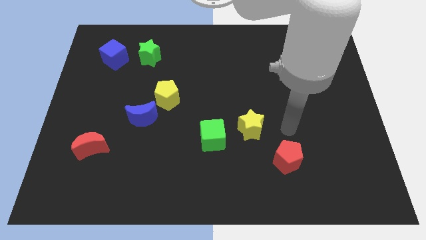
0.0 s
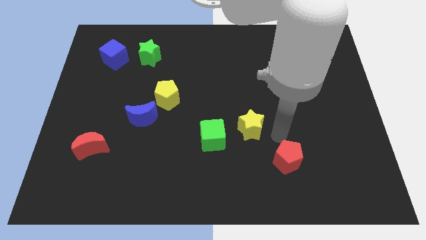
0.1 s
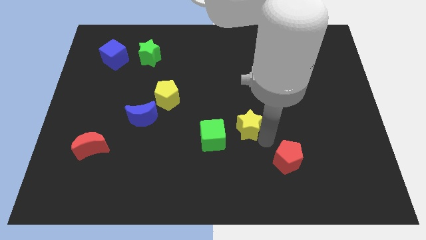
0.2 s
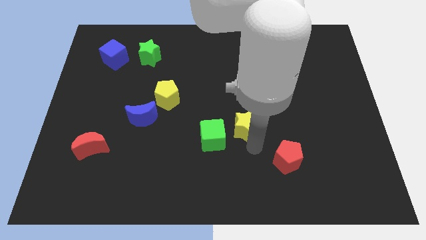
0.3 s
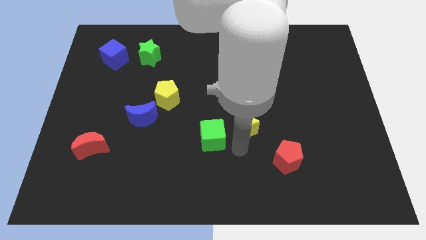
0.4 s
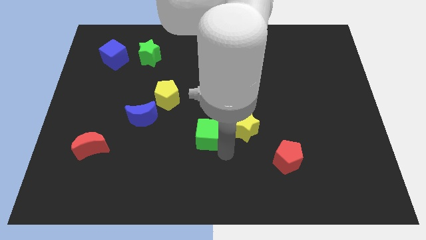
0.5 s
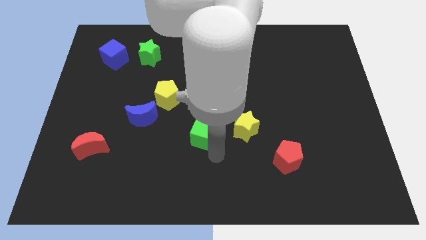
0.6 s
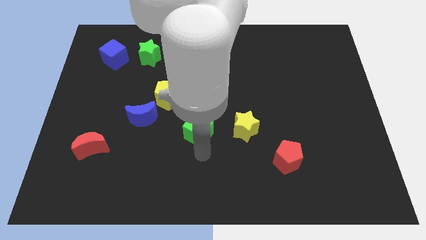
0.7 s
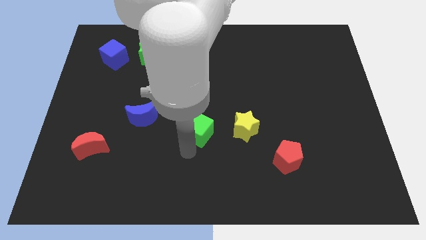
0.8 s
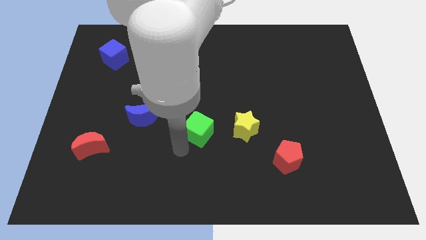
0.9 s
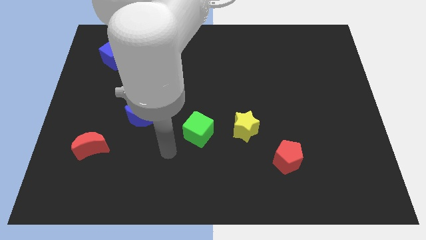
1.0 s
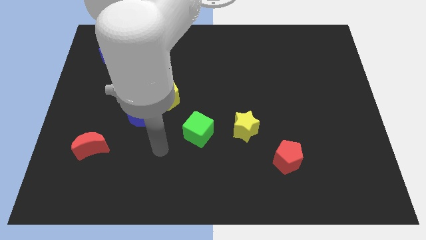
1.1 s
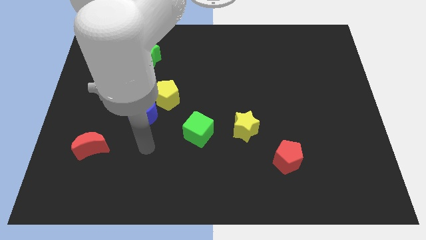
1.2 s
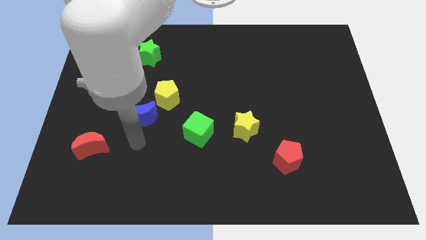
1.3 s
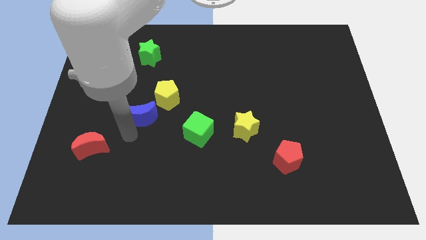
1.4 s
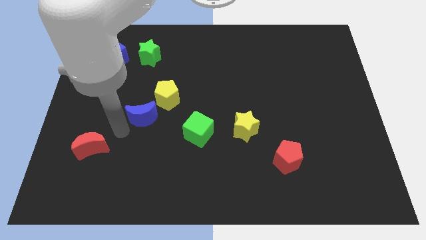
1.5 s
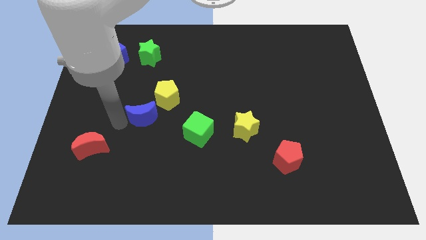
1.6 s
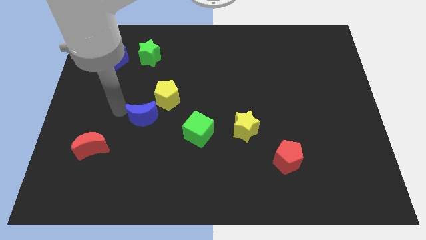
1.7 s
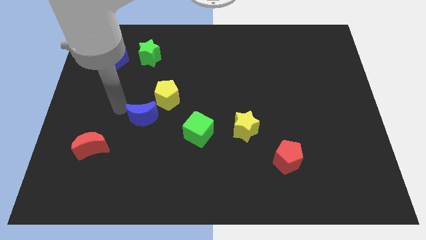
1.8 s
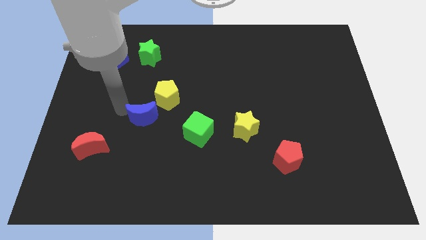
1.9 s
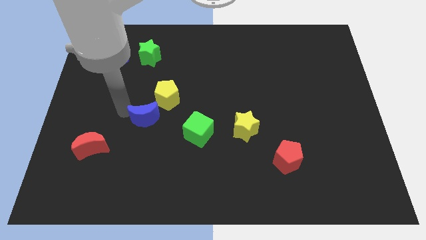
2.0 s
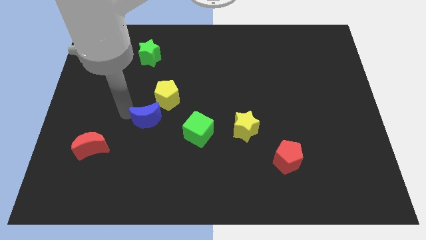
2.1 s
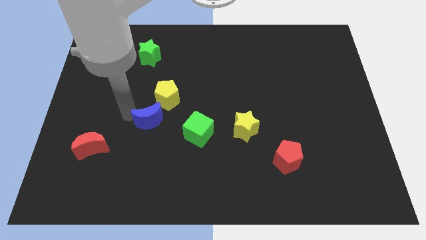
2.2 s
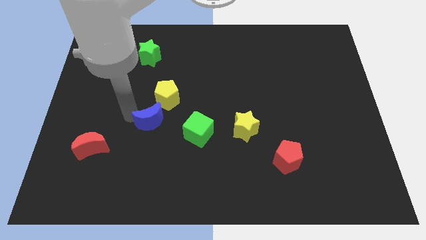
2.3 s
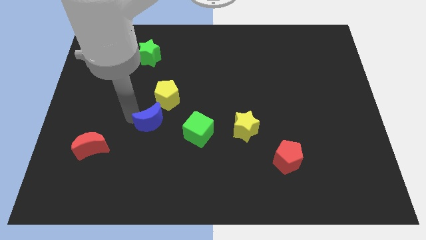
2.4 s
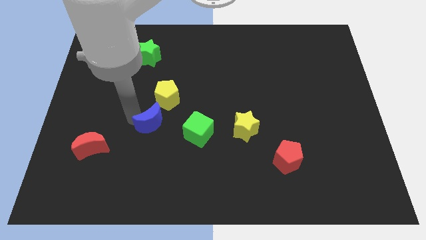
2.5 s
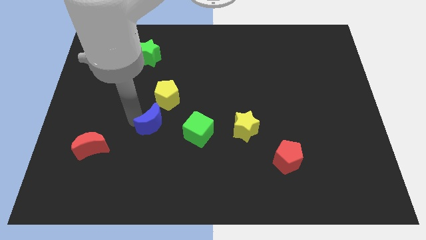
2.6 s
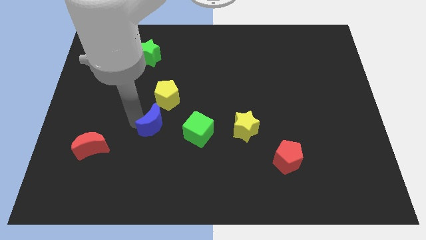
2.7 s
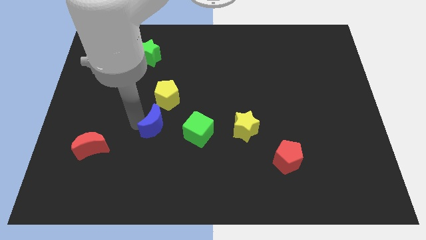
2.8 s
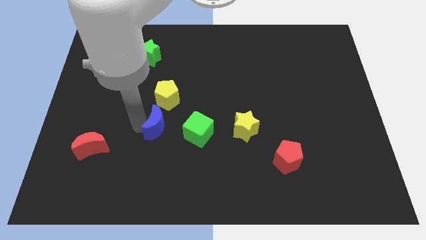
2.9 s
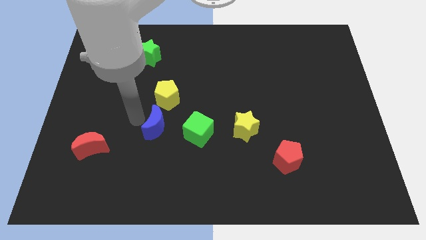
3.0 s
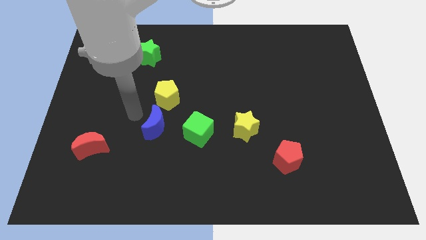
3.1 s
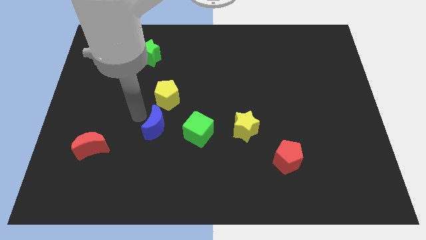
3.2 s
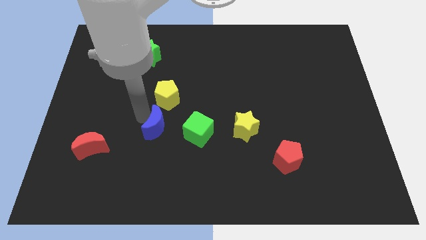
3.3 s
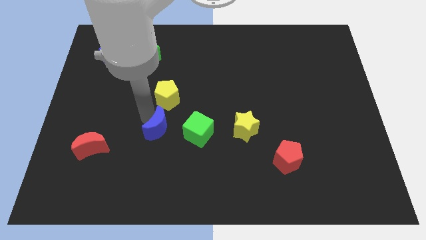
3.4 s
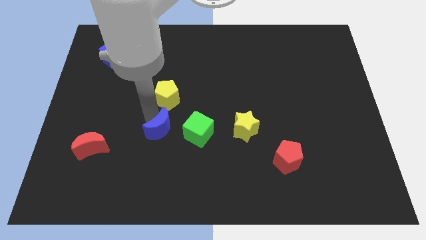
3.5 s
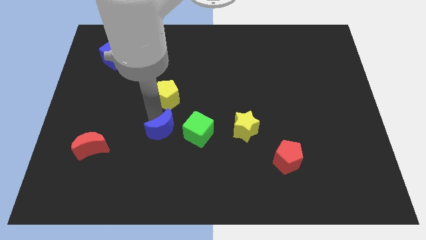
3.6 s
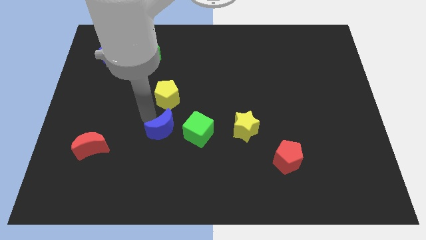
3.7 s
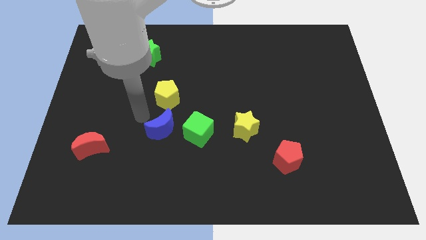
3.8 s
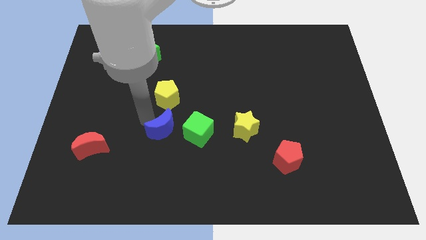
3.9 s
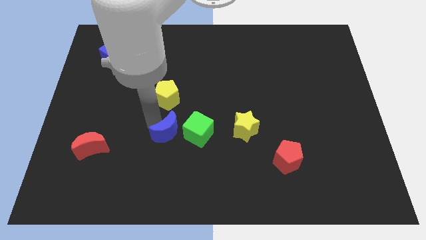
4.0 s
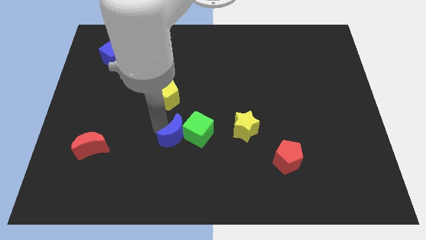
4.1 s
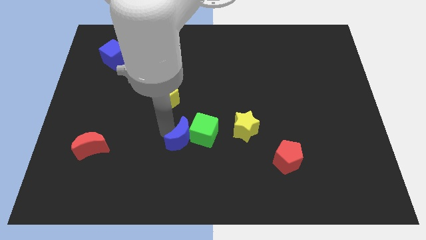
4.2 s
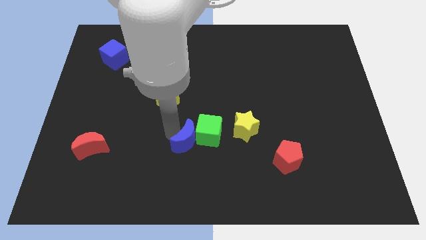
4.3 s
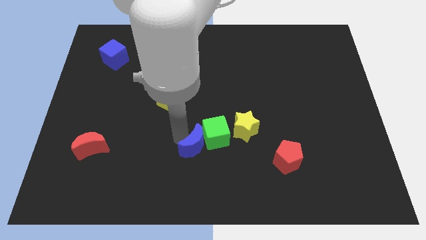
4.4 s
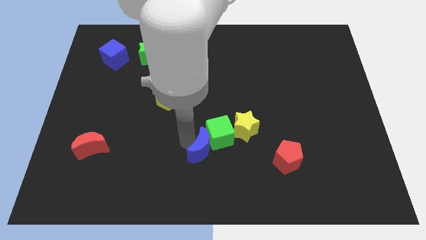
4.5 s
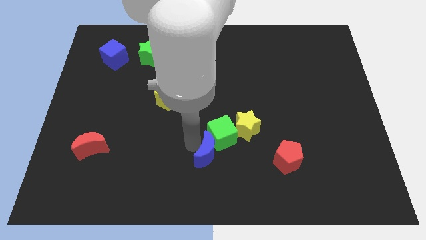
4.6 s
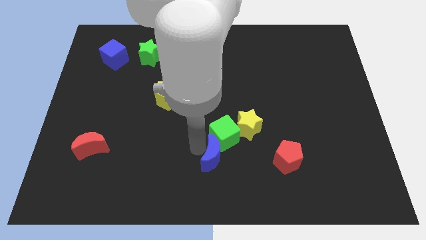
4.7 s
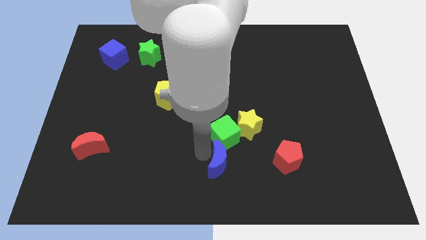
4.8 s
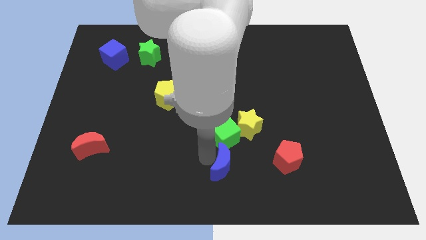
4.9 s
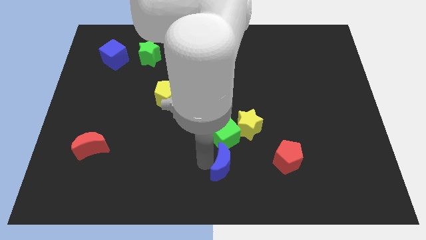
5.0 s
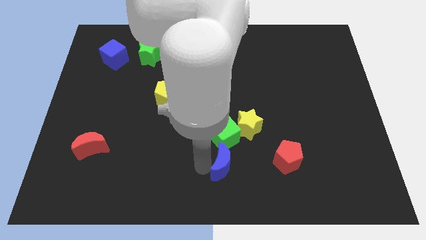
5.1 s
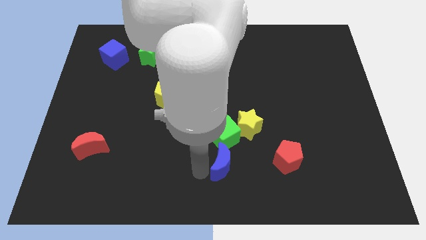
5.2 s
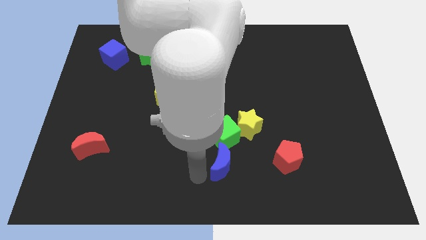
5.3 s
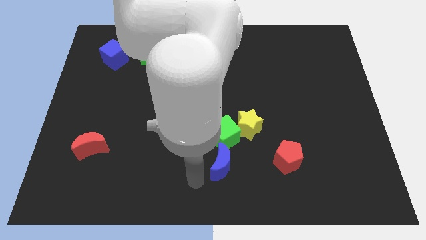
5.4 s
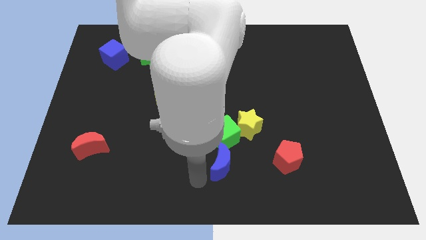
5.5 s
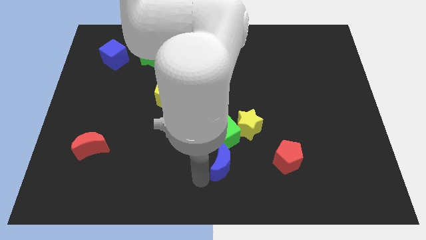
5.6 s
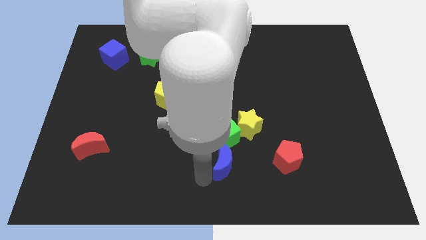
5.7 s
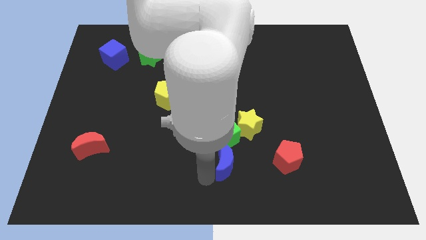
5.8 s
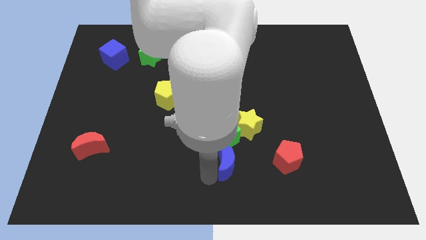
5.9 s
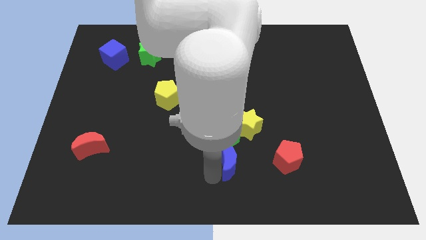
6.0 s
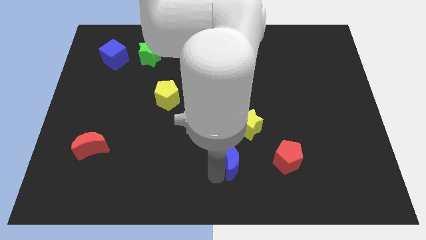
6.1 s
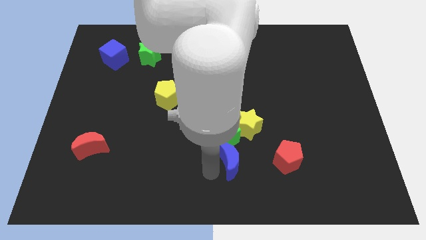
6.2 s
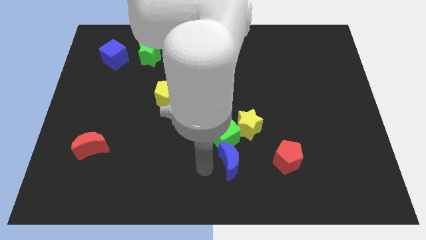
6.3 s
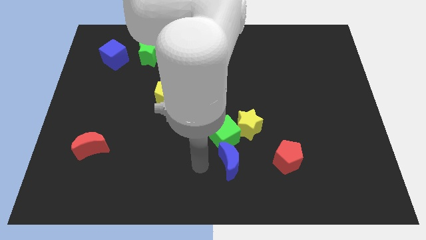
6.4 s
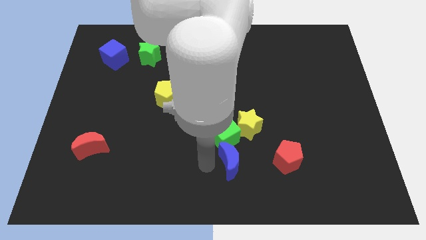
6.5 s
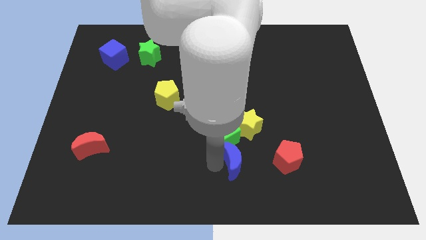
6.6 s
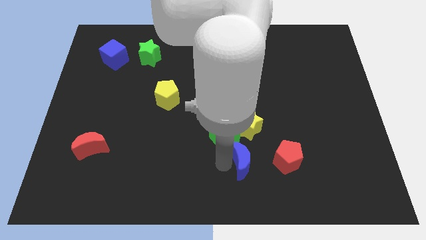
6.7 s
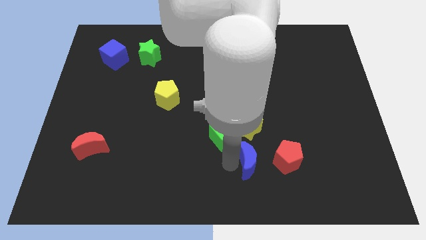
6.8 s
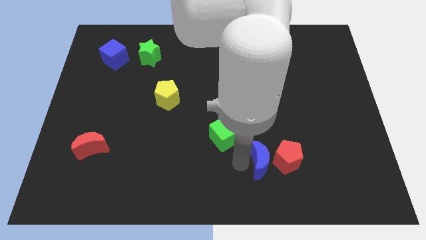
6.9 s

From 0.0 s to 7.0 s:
slide the blue moon close to the red pentagon
